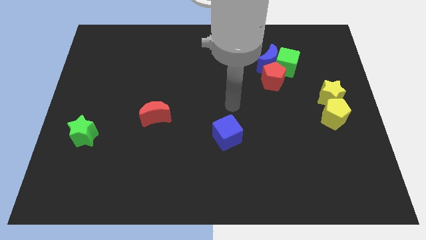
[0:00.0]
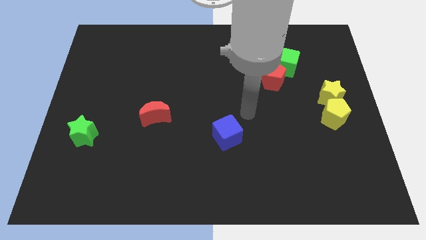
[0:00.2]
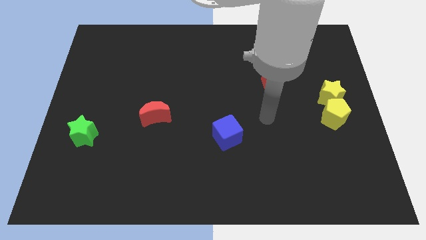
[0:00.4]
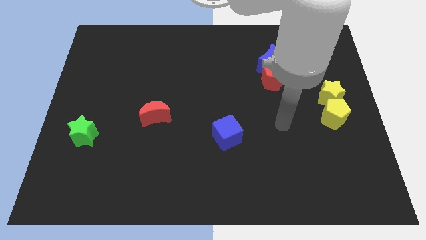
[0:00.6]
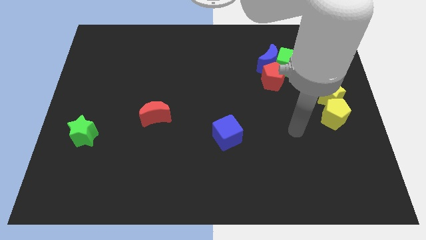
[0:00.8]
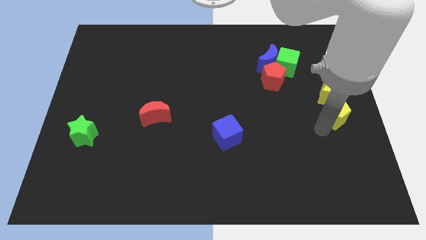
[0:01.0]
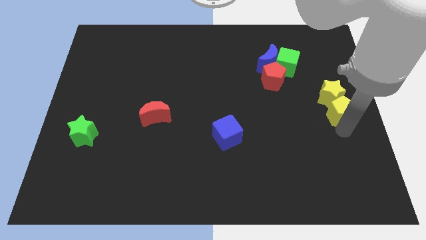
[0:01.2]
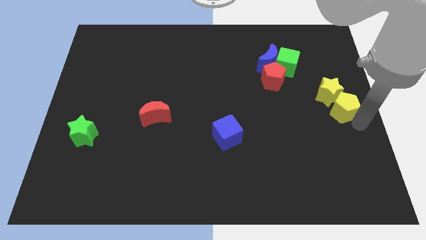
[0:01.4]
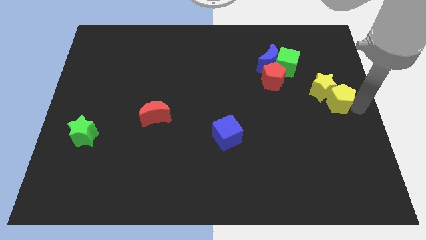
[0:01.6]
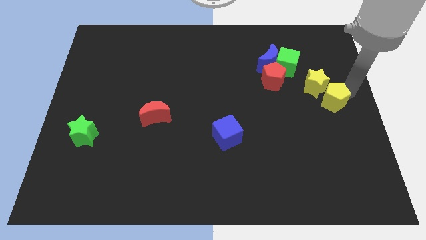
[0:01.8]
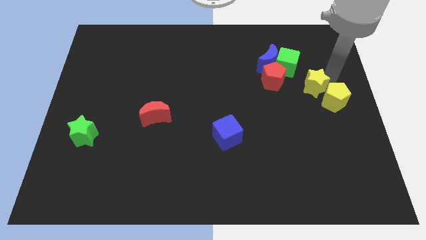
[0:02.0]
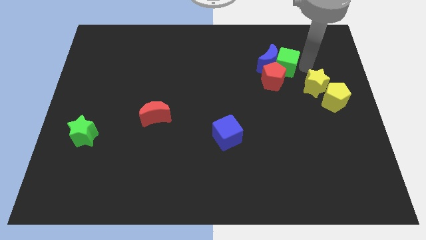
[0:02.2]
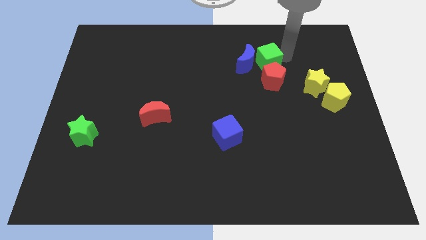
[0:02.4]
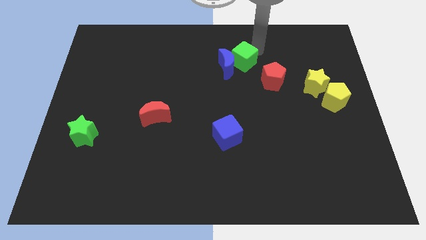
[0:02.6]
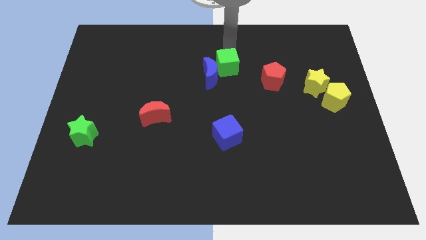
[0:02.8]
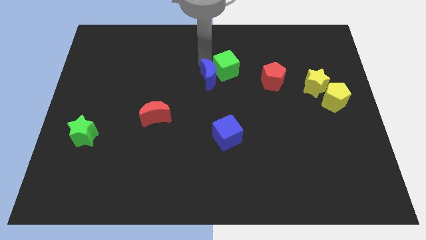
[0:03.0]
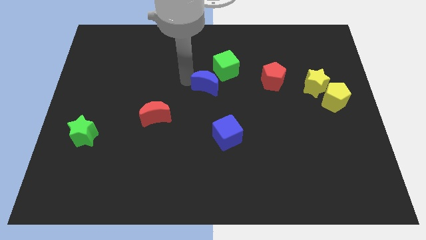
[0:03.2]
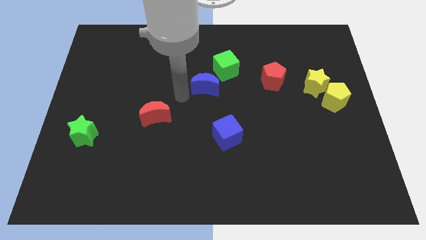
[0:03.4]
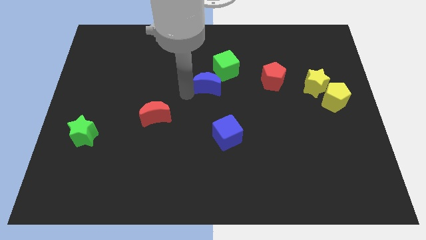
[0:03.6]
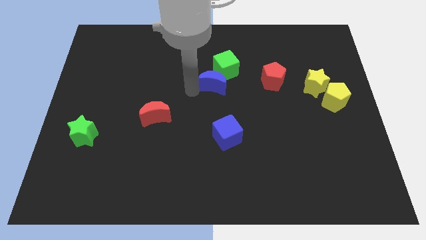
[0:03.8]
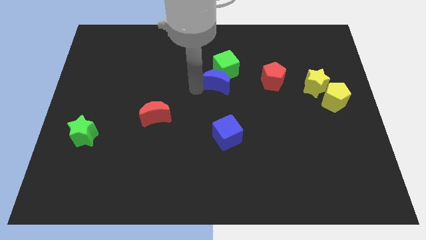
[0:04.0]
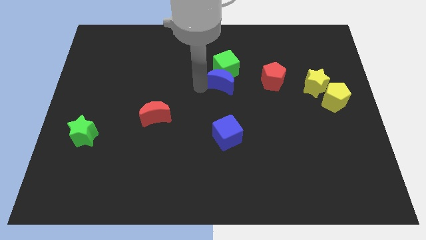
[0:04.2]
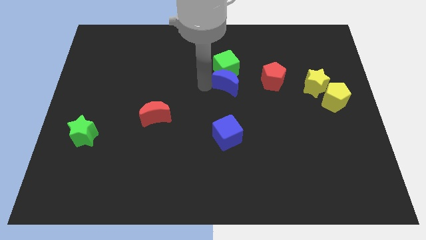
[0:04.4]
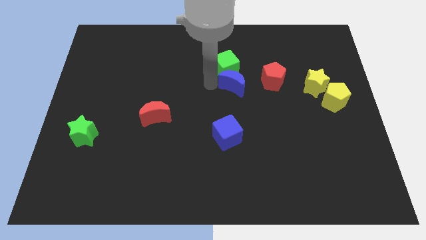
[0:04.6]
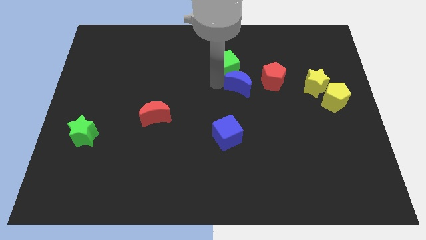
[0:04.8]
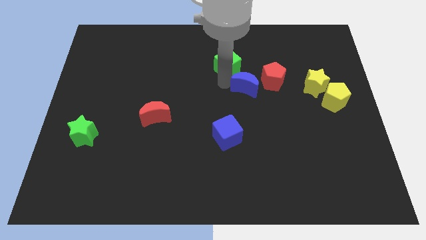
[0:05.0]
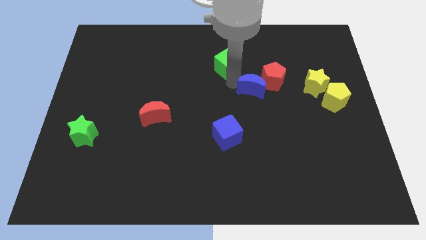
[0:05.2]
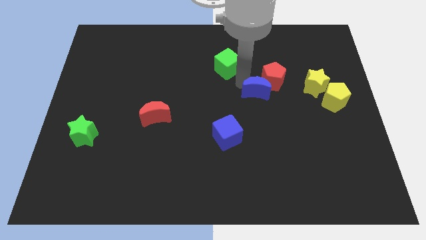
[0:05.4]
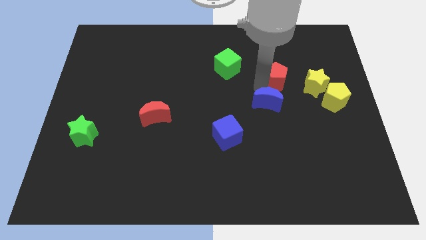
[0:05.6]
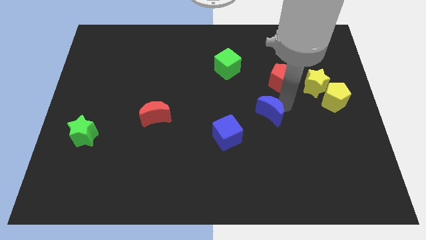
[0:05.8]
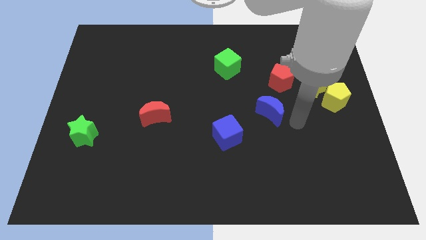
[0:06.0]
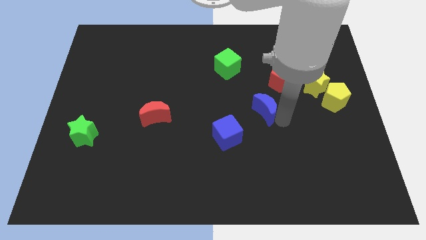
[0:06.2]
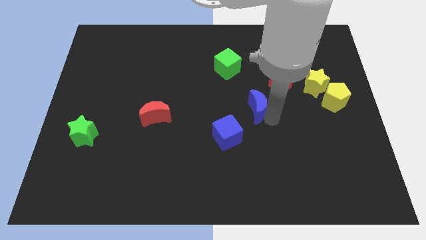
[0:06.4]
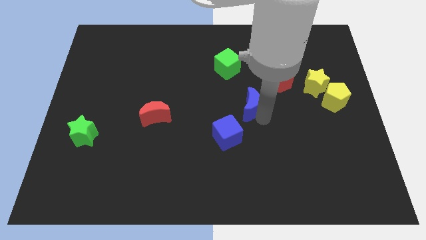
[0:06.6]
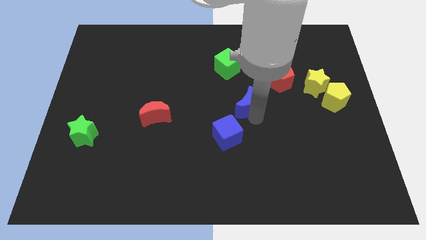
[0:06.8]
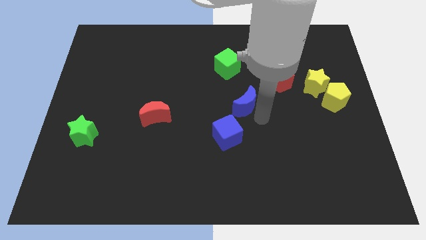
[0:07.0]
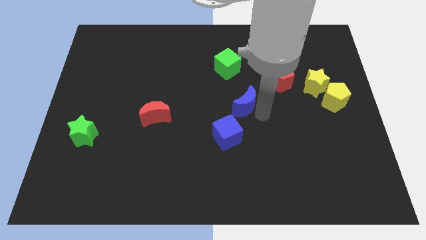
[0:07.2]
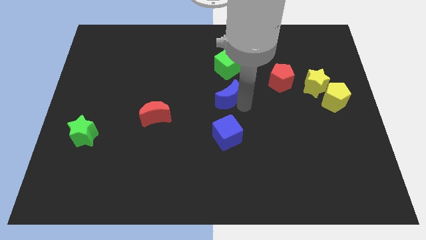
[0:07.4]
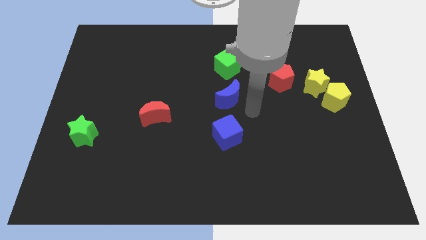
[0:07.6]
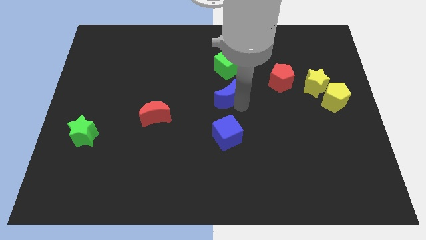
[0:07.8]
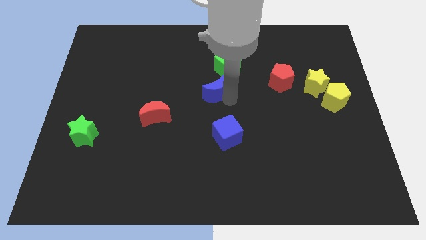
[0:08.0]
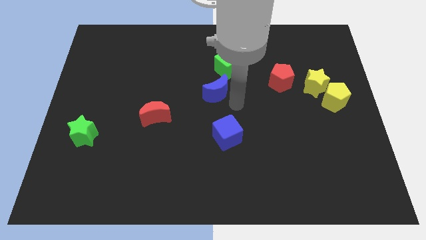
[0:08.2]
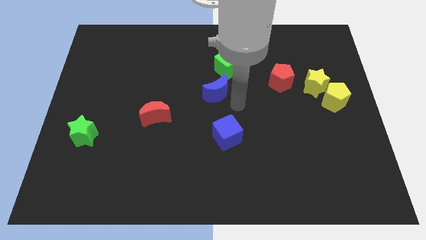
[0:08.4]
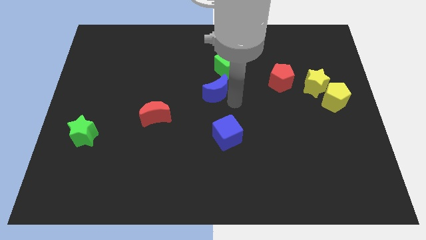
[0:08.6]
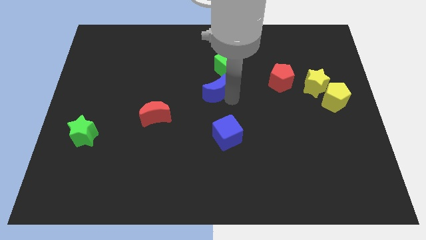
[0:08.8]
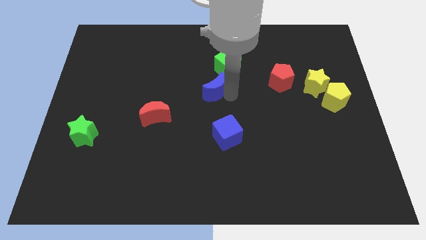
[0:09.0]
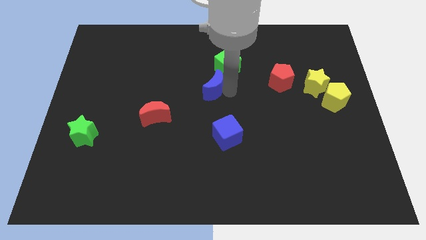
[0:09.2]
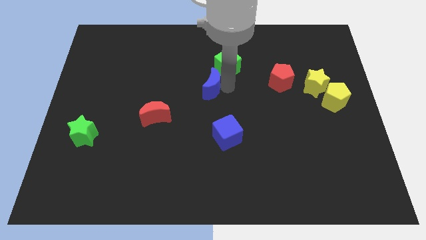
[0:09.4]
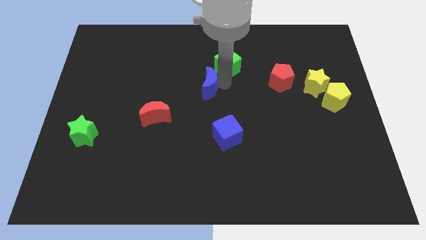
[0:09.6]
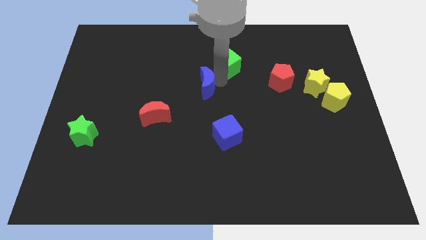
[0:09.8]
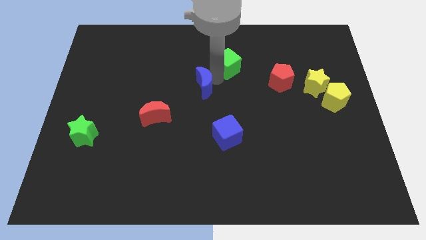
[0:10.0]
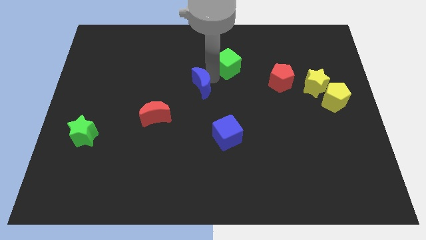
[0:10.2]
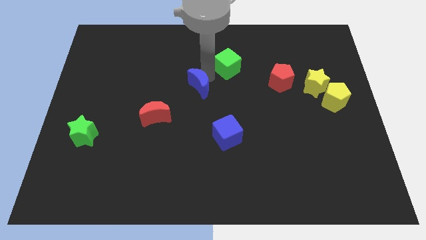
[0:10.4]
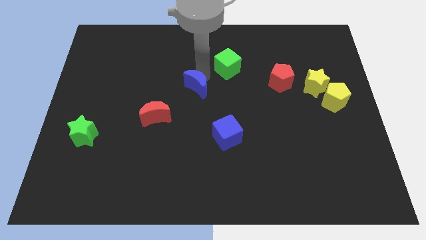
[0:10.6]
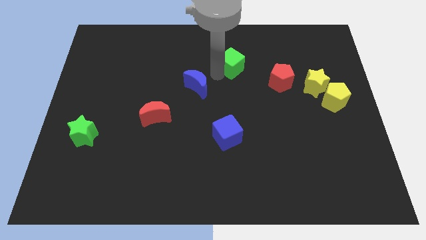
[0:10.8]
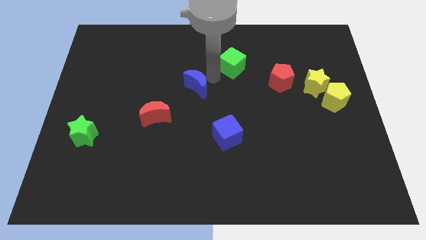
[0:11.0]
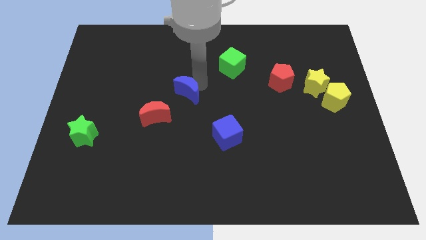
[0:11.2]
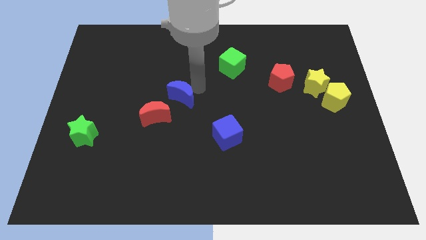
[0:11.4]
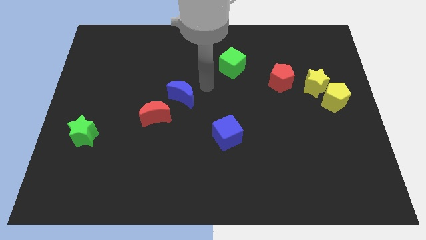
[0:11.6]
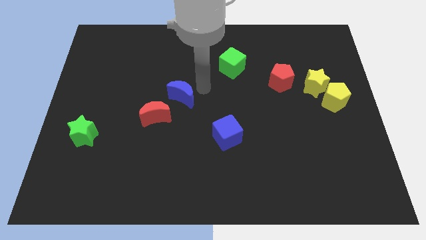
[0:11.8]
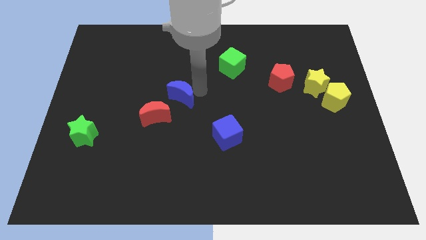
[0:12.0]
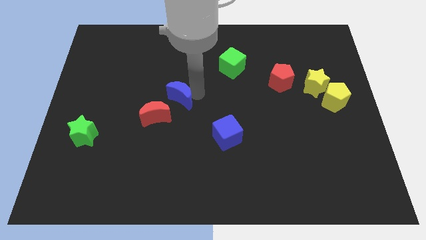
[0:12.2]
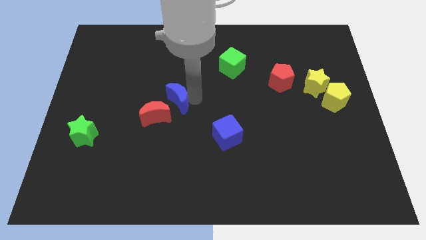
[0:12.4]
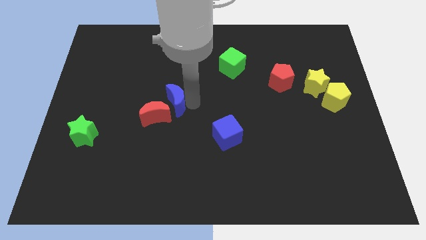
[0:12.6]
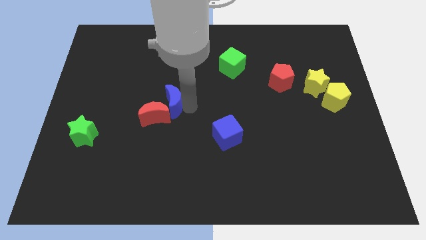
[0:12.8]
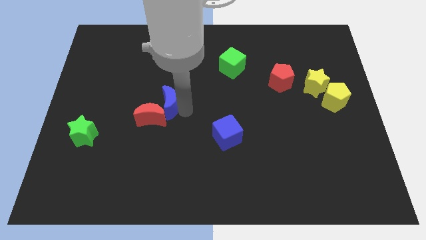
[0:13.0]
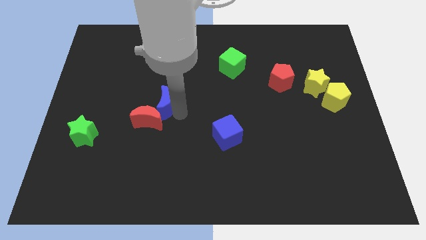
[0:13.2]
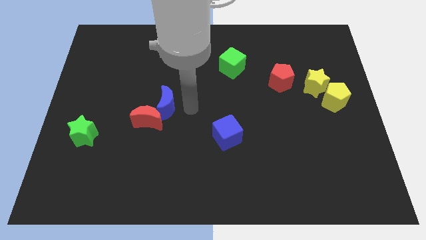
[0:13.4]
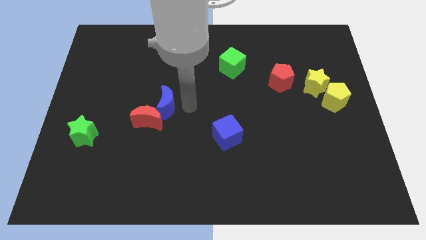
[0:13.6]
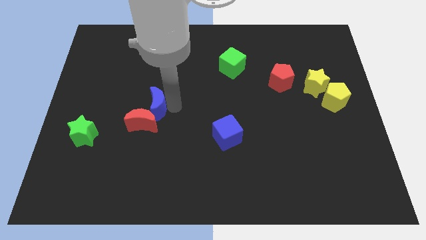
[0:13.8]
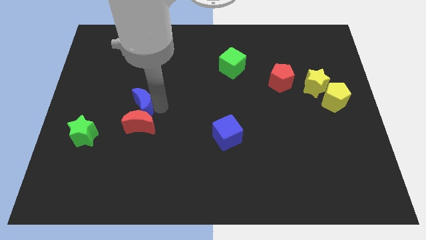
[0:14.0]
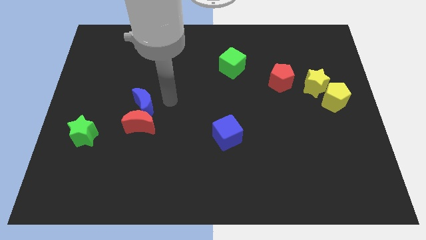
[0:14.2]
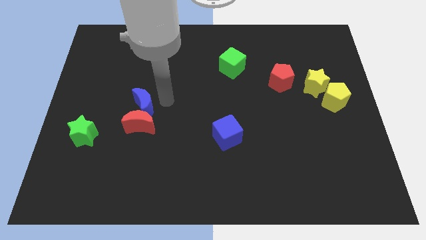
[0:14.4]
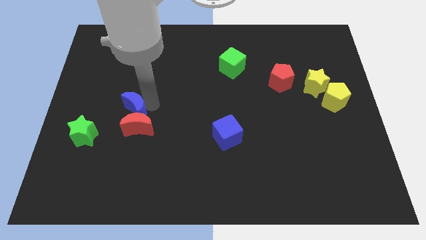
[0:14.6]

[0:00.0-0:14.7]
push the blue moon diagonally up and to the right of the green star
